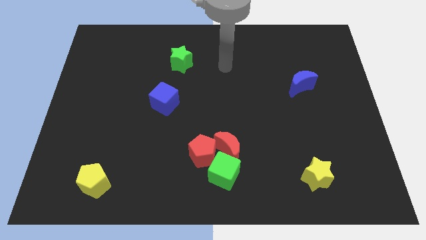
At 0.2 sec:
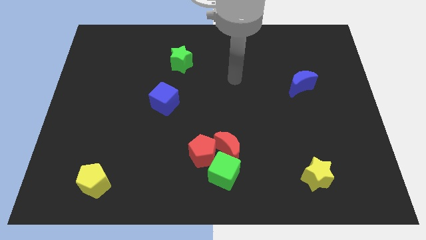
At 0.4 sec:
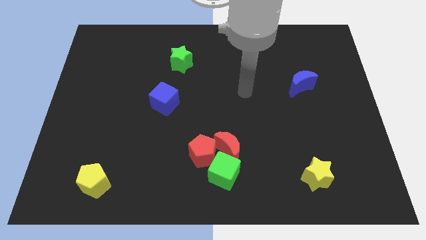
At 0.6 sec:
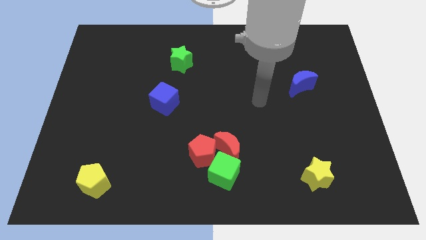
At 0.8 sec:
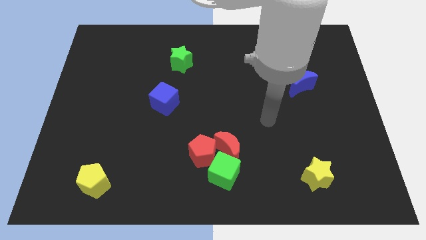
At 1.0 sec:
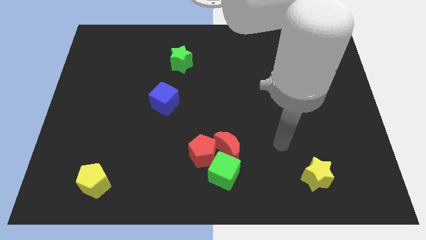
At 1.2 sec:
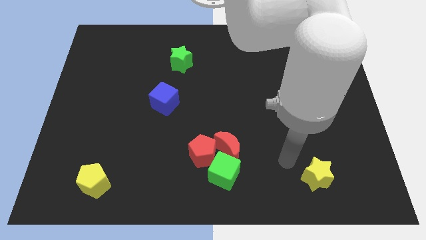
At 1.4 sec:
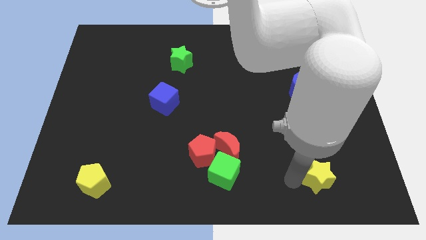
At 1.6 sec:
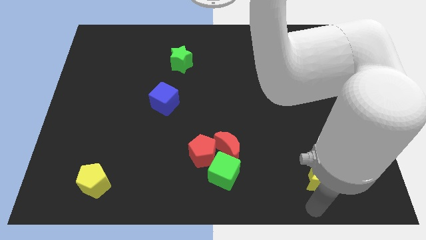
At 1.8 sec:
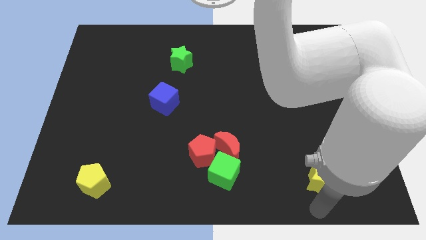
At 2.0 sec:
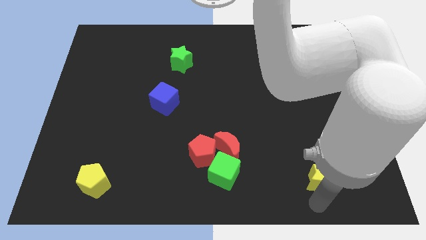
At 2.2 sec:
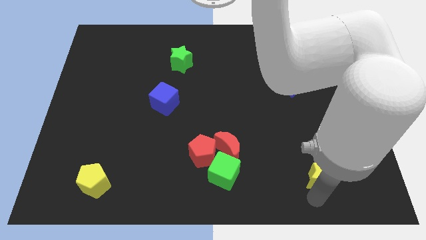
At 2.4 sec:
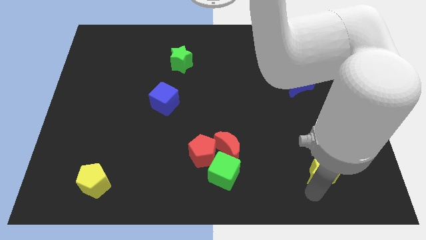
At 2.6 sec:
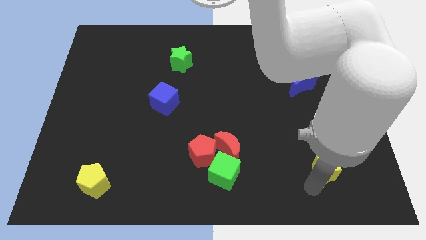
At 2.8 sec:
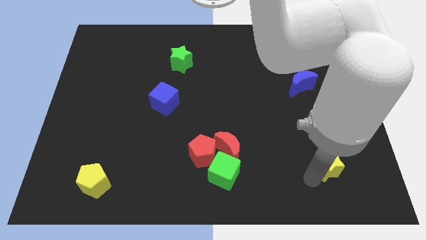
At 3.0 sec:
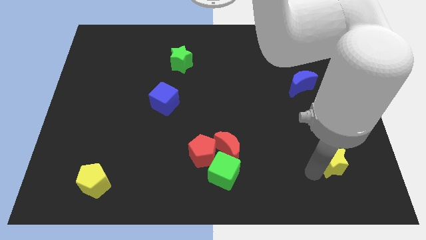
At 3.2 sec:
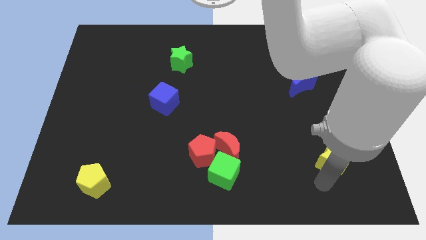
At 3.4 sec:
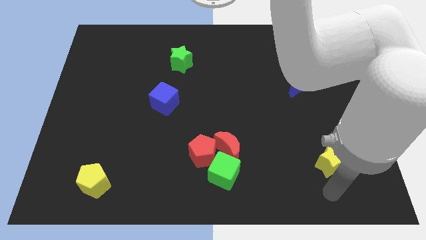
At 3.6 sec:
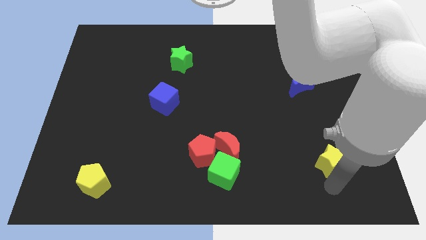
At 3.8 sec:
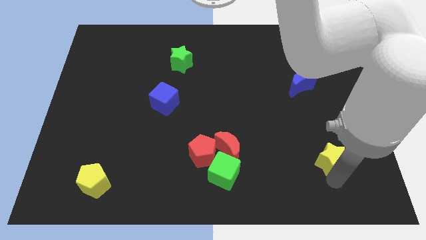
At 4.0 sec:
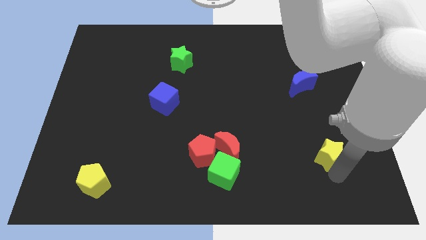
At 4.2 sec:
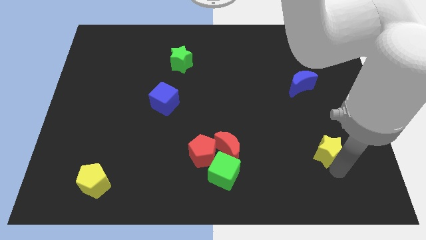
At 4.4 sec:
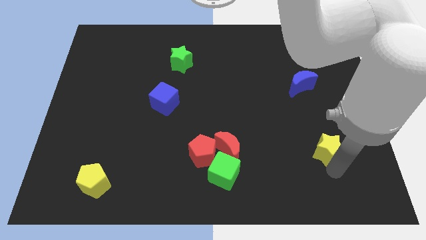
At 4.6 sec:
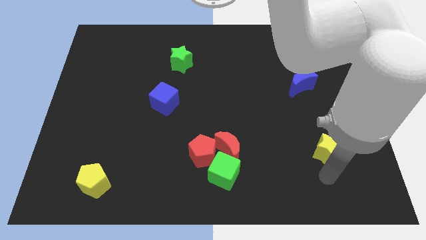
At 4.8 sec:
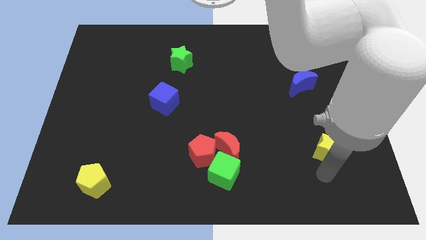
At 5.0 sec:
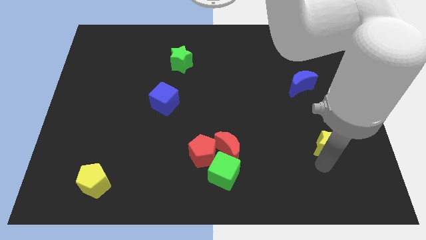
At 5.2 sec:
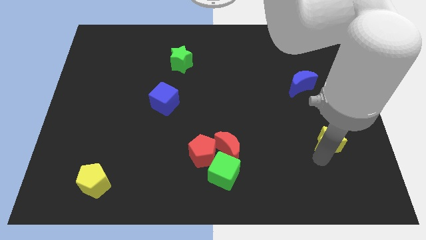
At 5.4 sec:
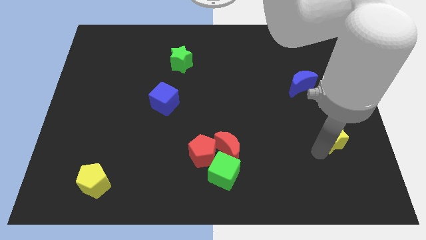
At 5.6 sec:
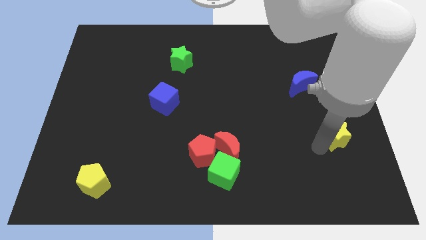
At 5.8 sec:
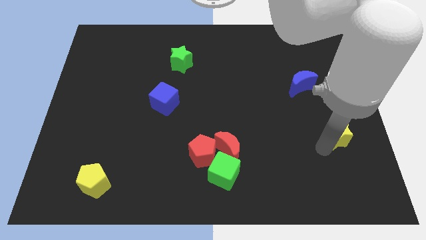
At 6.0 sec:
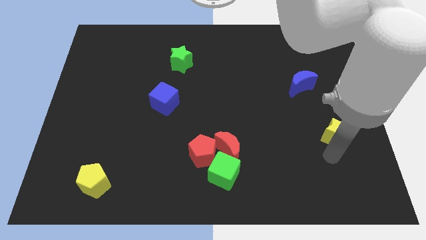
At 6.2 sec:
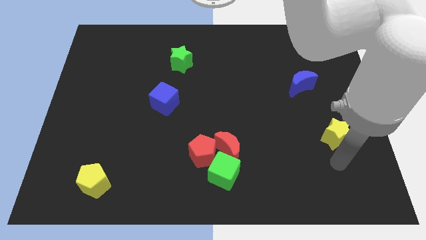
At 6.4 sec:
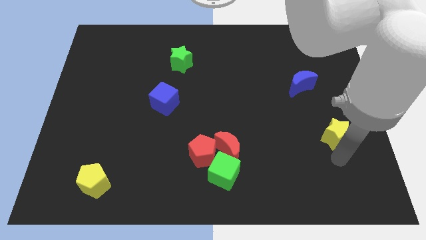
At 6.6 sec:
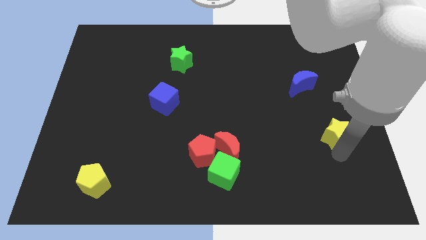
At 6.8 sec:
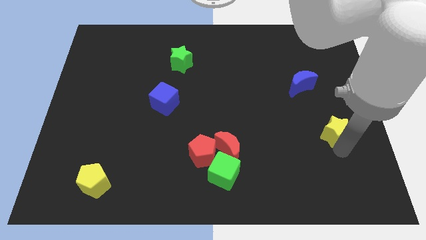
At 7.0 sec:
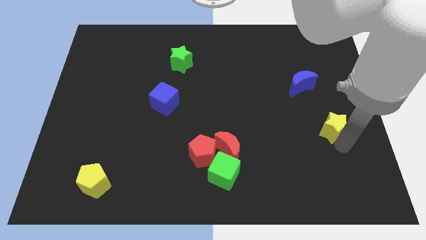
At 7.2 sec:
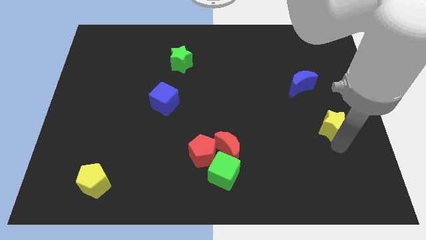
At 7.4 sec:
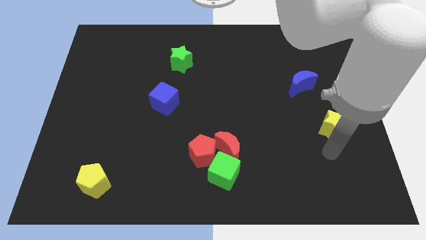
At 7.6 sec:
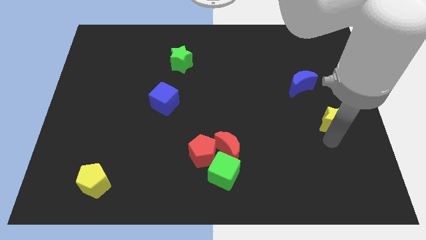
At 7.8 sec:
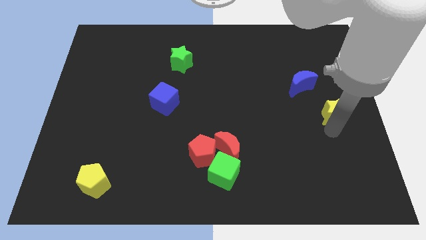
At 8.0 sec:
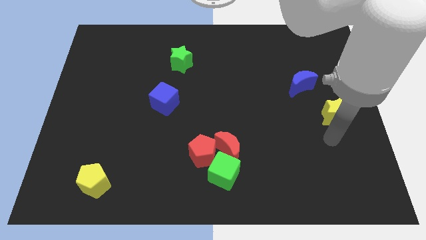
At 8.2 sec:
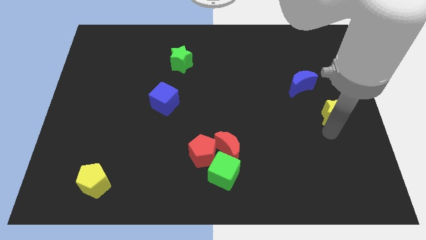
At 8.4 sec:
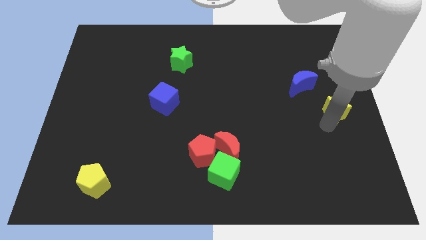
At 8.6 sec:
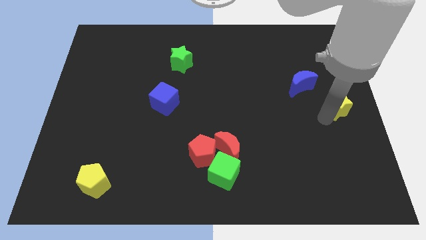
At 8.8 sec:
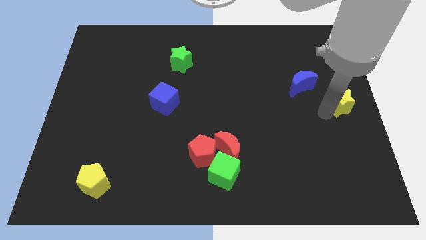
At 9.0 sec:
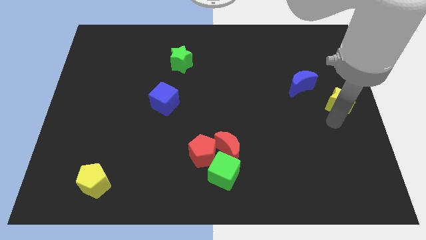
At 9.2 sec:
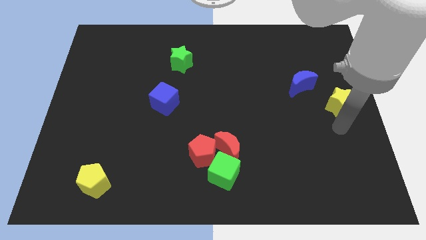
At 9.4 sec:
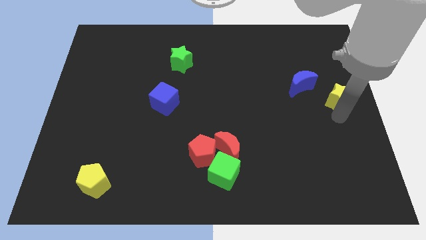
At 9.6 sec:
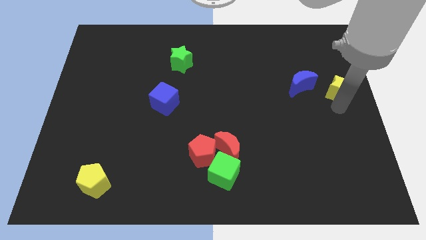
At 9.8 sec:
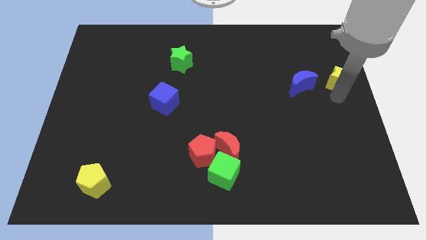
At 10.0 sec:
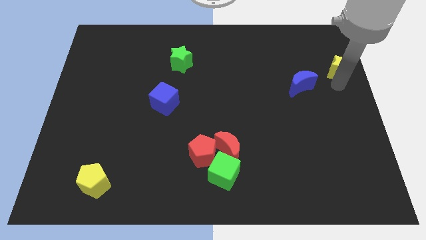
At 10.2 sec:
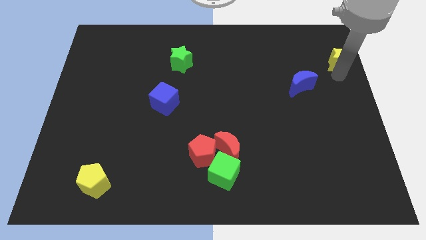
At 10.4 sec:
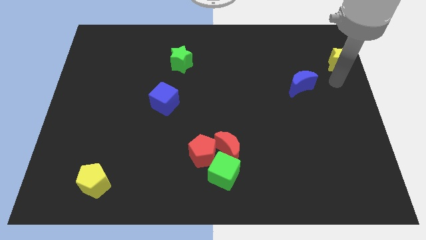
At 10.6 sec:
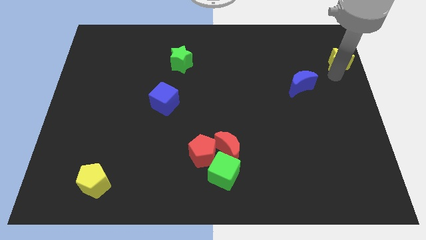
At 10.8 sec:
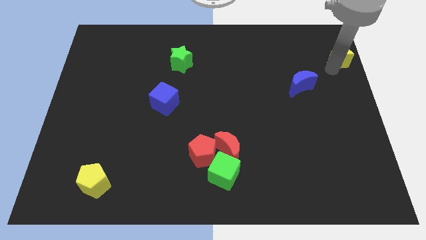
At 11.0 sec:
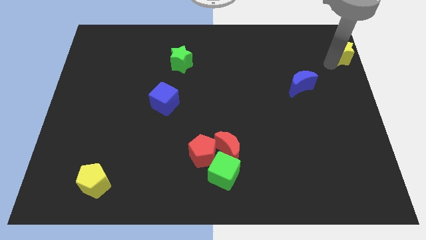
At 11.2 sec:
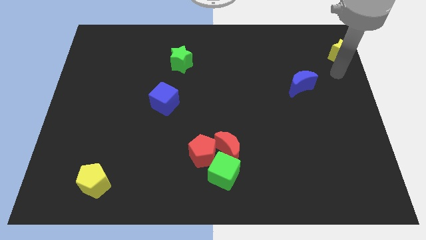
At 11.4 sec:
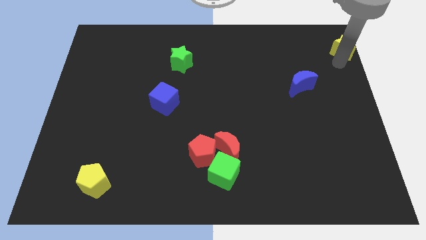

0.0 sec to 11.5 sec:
move the yellow star to the top right of the board
